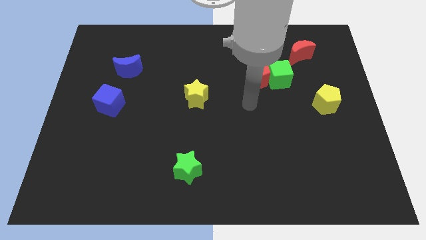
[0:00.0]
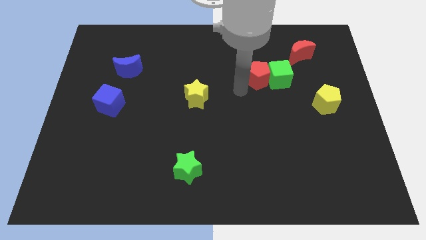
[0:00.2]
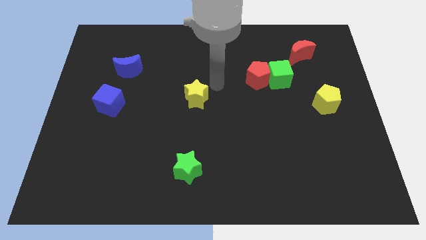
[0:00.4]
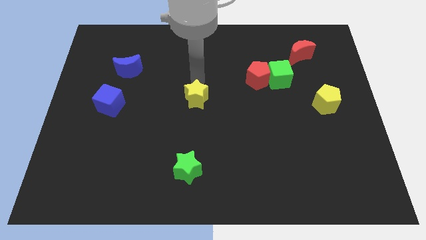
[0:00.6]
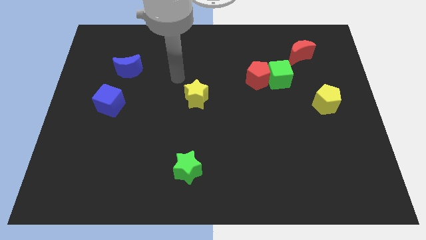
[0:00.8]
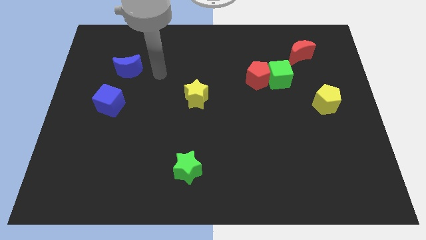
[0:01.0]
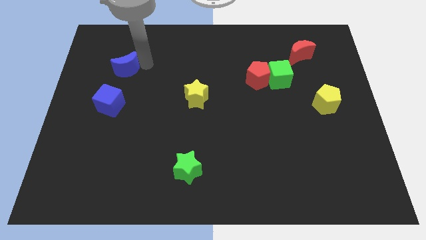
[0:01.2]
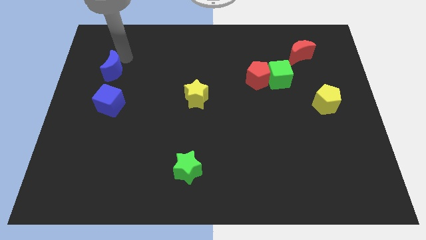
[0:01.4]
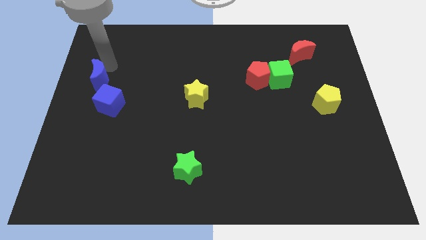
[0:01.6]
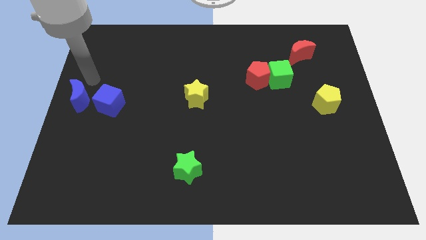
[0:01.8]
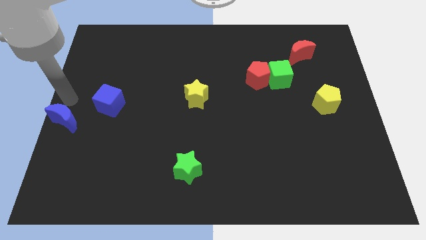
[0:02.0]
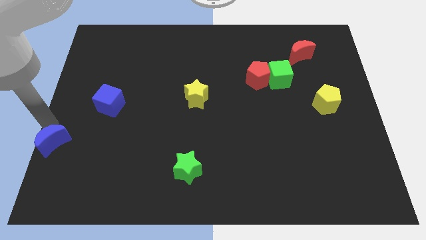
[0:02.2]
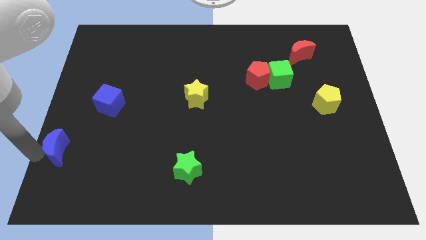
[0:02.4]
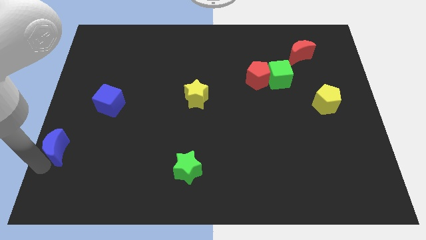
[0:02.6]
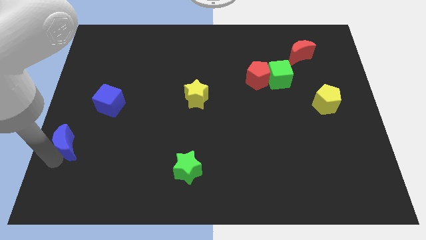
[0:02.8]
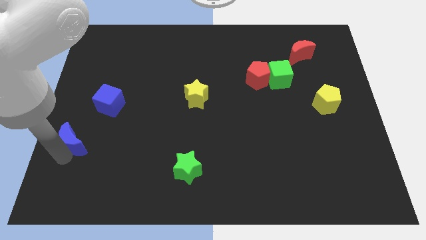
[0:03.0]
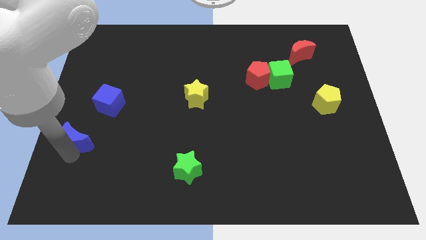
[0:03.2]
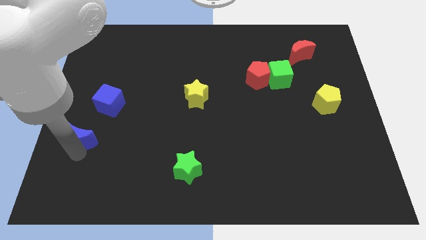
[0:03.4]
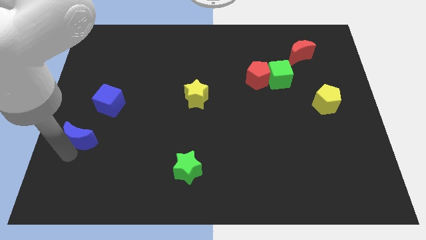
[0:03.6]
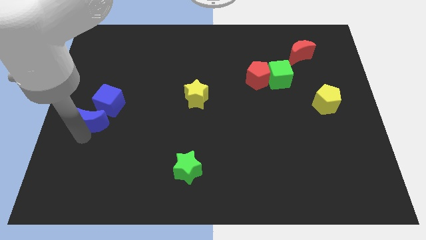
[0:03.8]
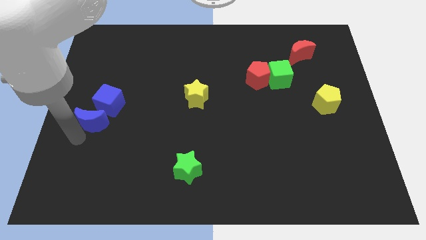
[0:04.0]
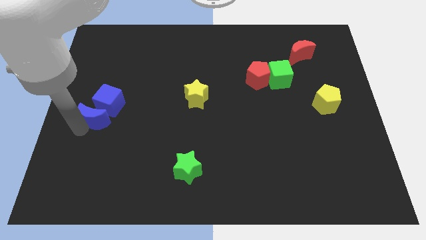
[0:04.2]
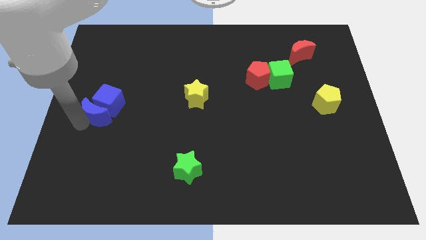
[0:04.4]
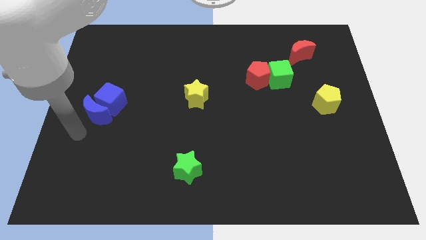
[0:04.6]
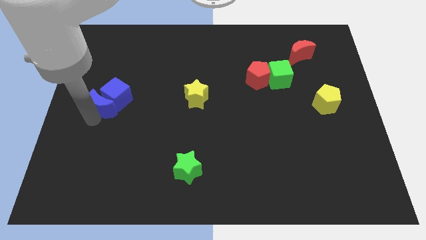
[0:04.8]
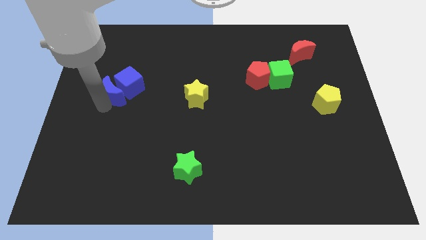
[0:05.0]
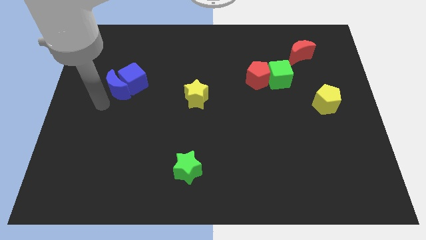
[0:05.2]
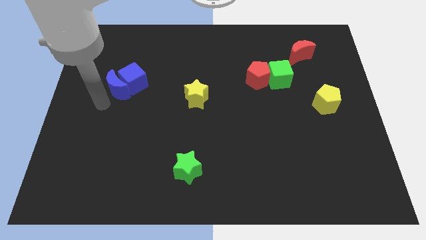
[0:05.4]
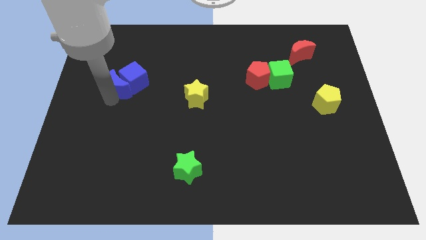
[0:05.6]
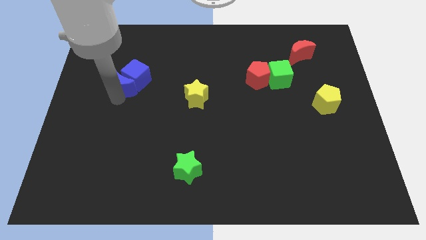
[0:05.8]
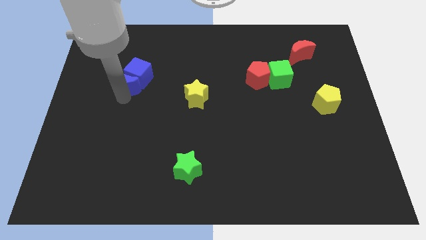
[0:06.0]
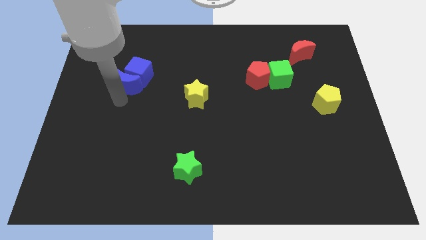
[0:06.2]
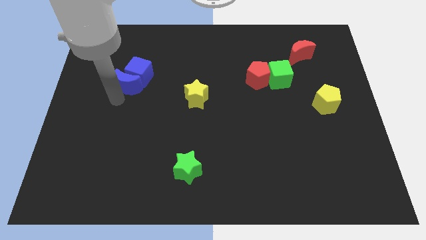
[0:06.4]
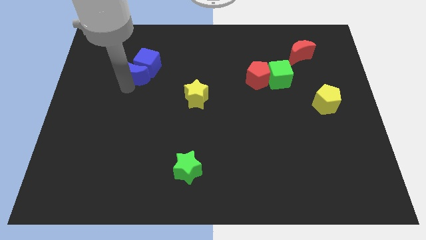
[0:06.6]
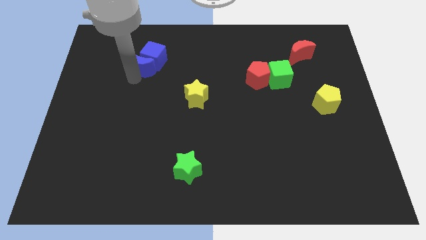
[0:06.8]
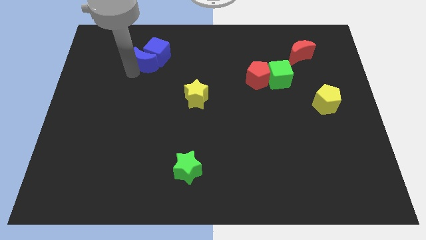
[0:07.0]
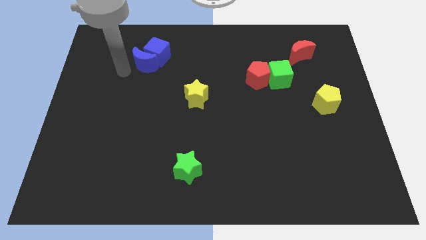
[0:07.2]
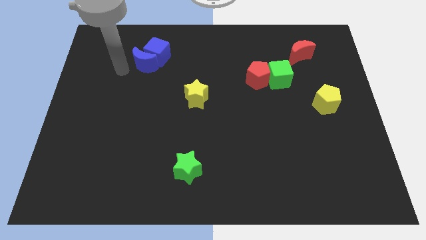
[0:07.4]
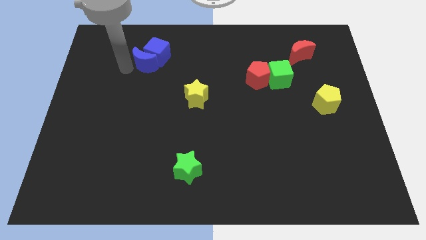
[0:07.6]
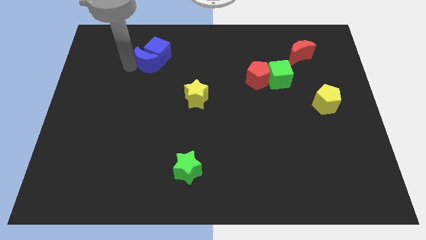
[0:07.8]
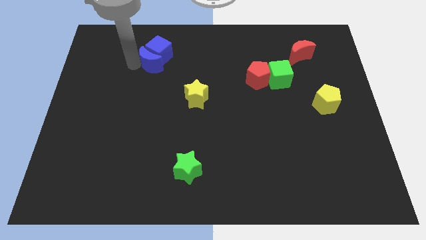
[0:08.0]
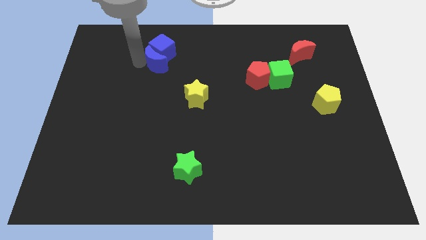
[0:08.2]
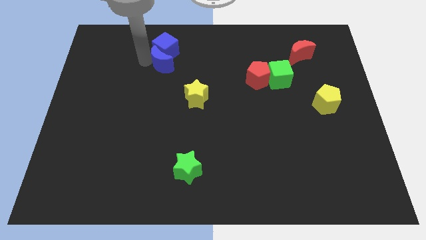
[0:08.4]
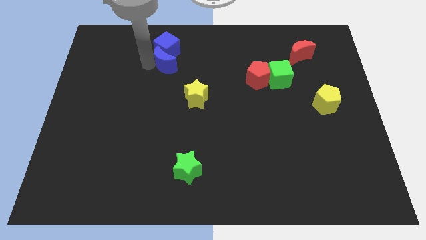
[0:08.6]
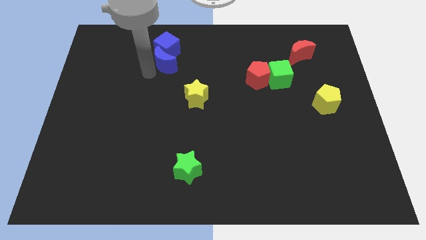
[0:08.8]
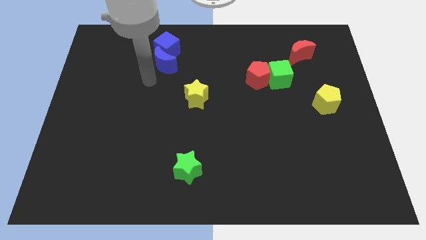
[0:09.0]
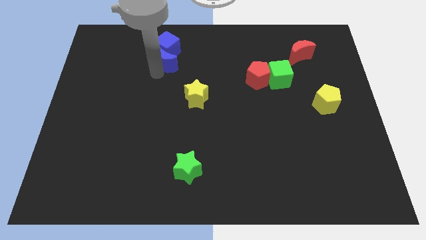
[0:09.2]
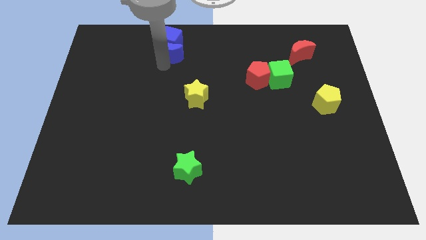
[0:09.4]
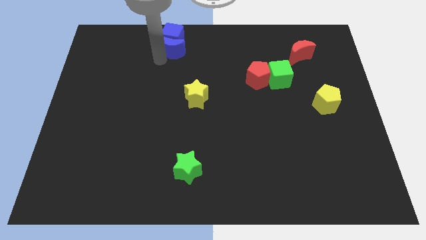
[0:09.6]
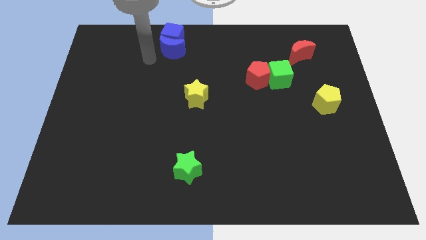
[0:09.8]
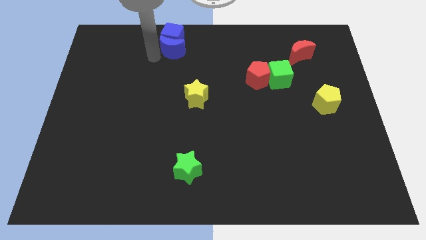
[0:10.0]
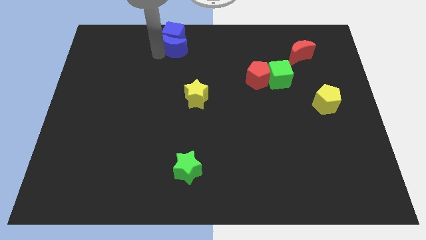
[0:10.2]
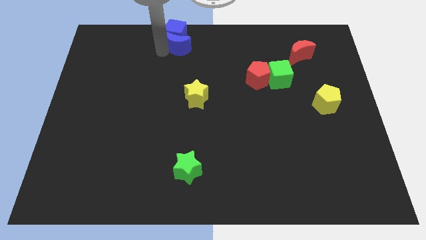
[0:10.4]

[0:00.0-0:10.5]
push the blue moon to the top side

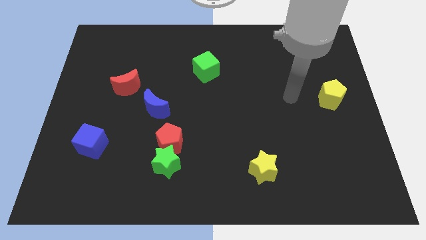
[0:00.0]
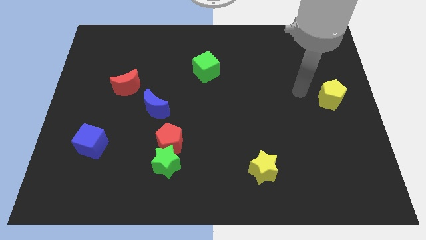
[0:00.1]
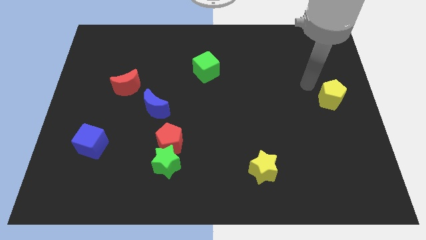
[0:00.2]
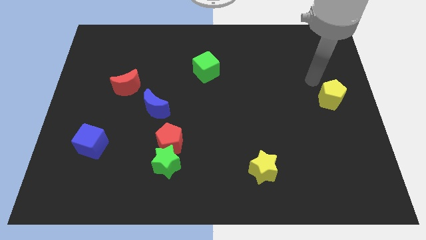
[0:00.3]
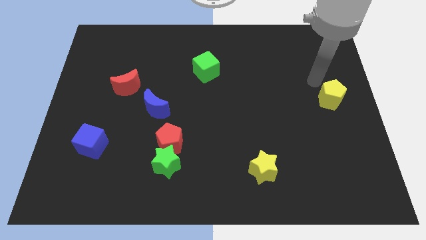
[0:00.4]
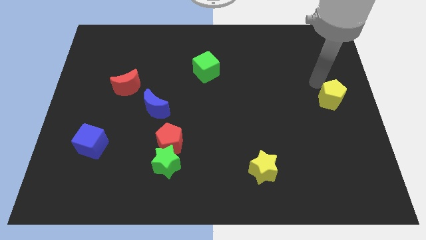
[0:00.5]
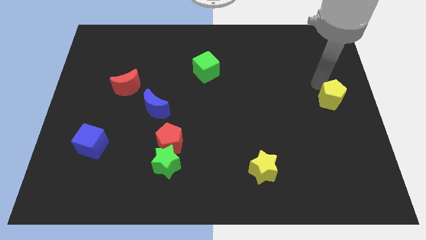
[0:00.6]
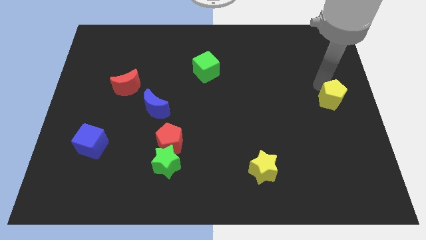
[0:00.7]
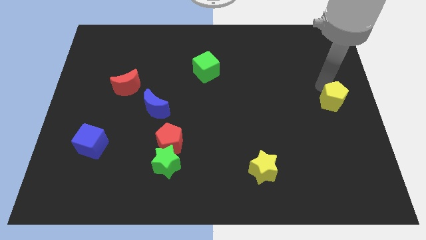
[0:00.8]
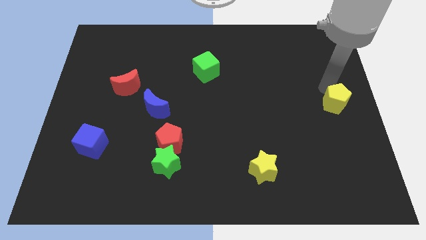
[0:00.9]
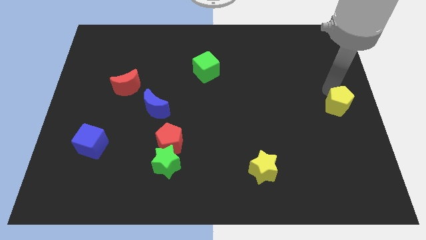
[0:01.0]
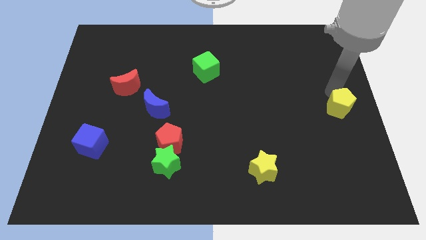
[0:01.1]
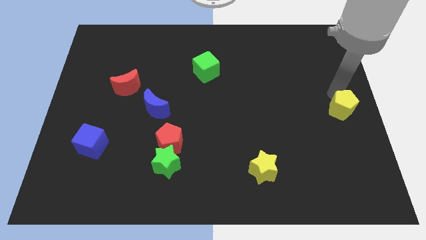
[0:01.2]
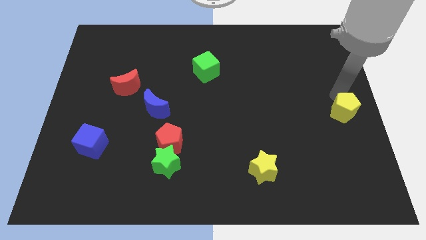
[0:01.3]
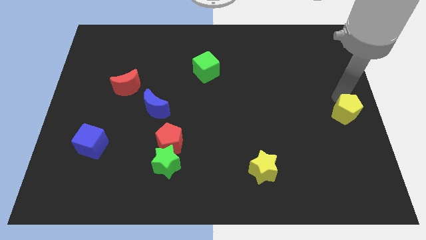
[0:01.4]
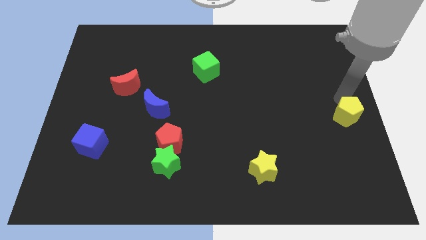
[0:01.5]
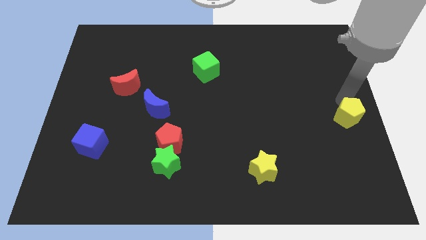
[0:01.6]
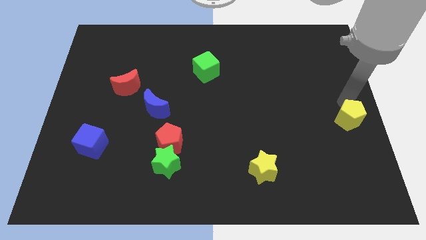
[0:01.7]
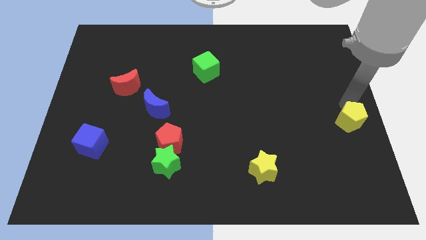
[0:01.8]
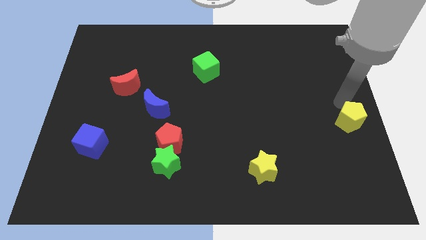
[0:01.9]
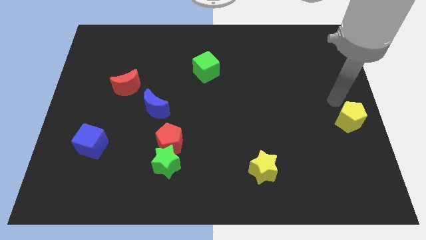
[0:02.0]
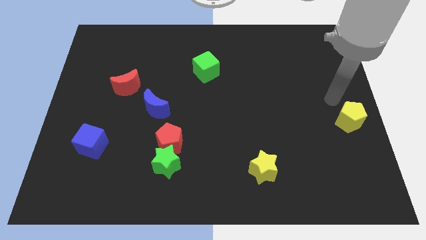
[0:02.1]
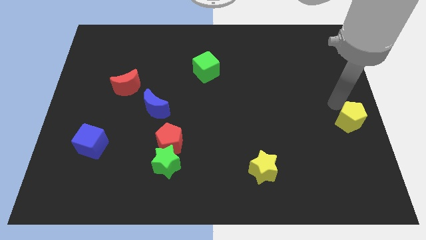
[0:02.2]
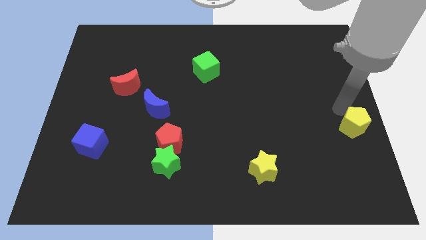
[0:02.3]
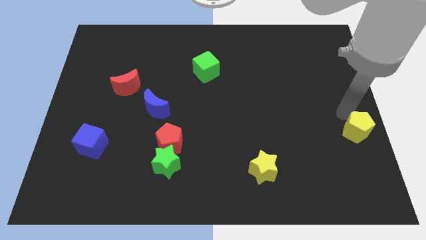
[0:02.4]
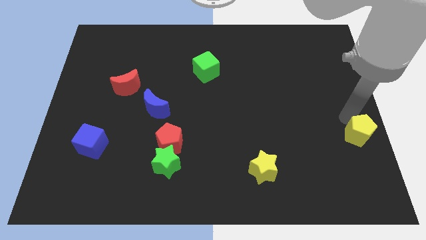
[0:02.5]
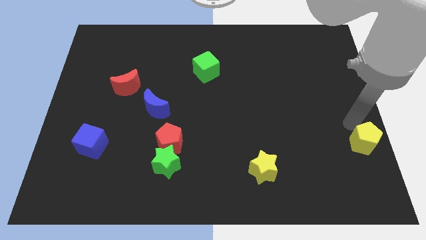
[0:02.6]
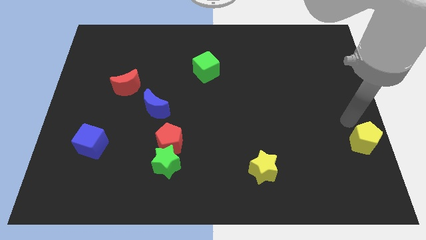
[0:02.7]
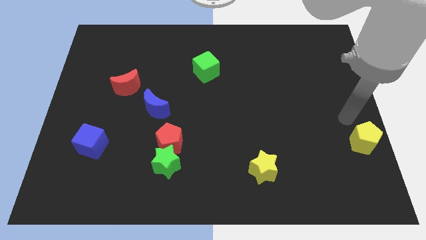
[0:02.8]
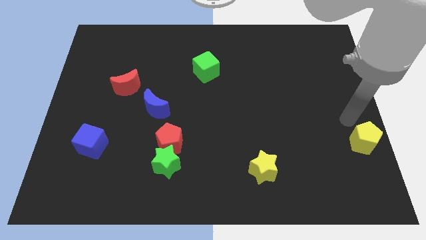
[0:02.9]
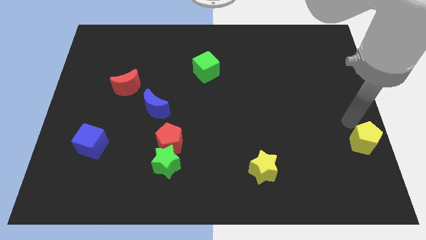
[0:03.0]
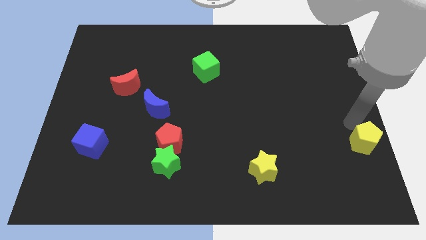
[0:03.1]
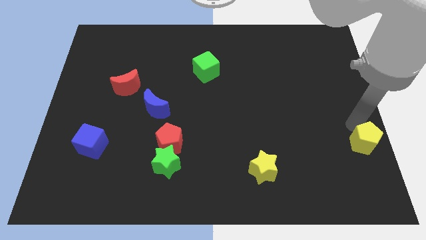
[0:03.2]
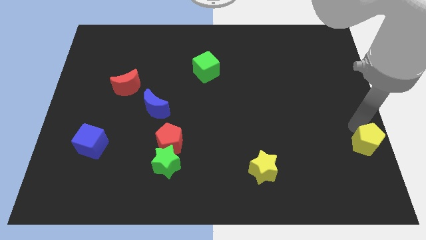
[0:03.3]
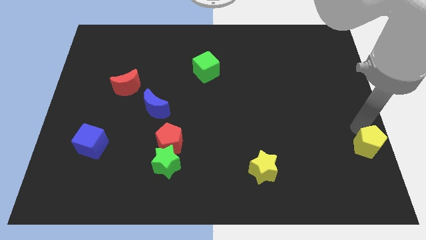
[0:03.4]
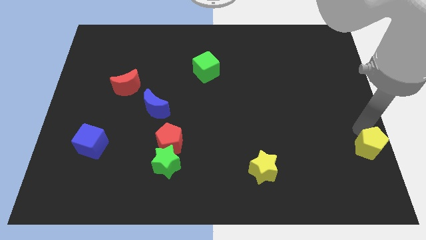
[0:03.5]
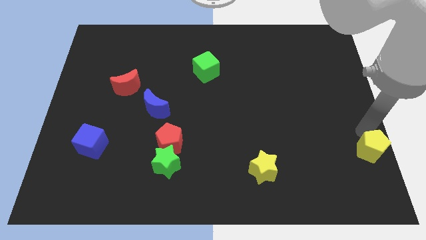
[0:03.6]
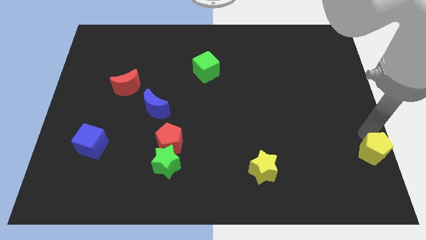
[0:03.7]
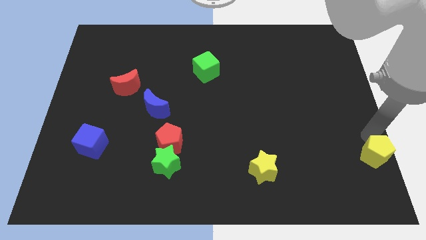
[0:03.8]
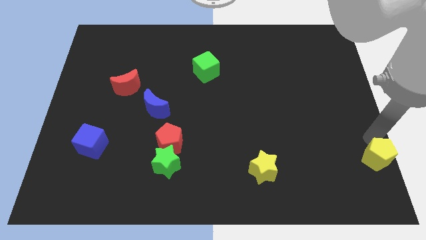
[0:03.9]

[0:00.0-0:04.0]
slide the yellow pentagon to the bottom right
